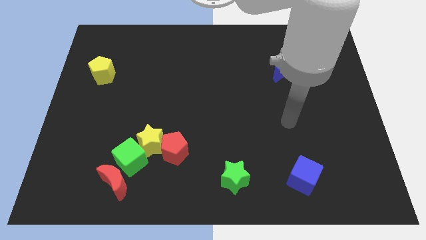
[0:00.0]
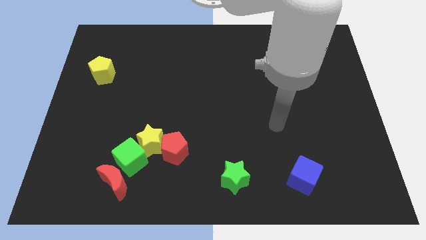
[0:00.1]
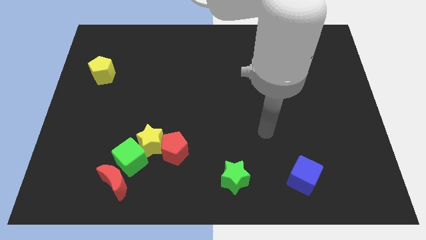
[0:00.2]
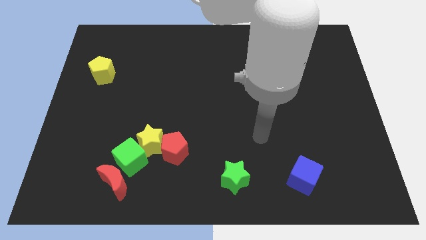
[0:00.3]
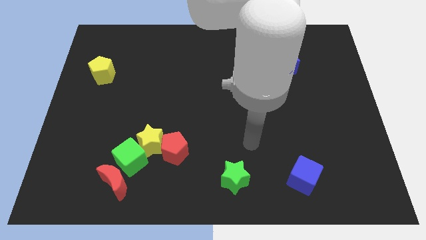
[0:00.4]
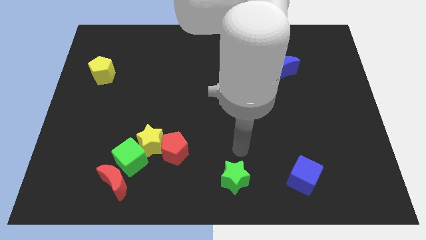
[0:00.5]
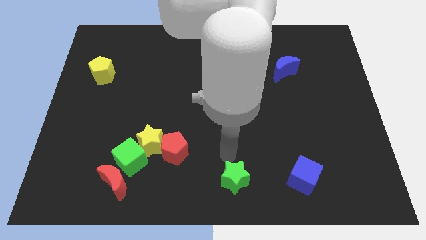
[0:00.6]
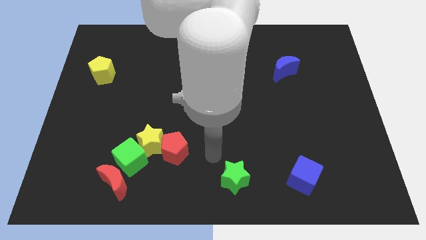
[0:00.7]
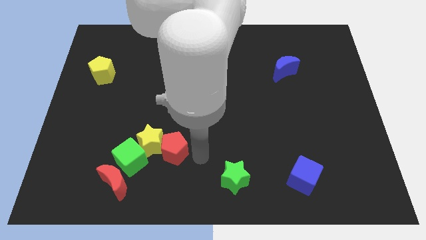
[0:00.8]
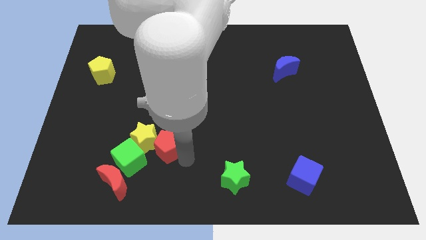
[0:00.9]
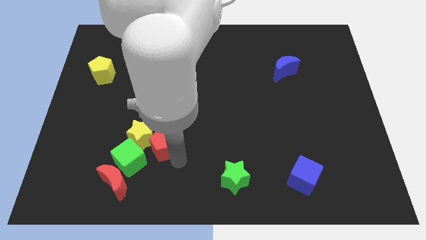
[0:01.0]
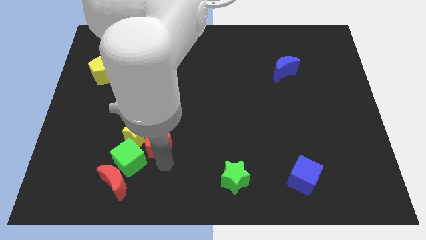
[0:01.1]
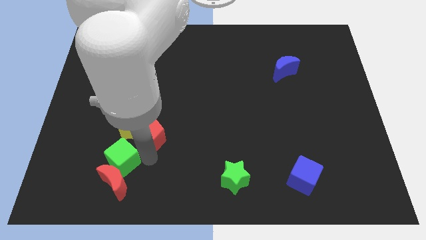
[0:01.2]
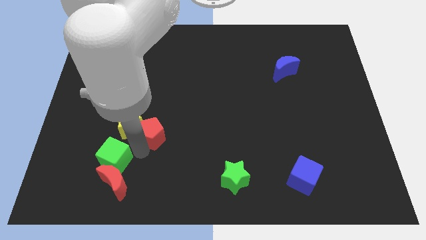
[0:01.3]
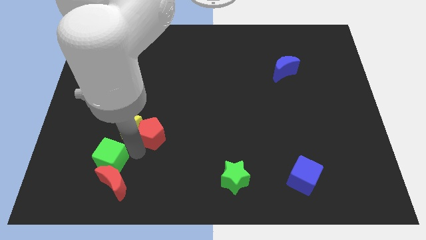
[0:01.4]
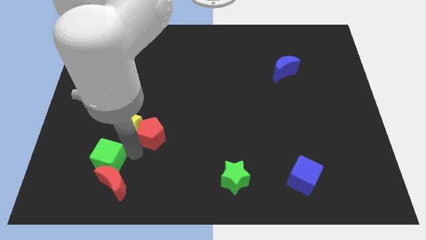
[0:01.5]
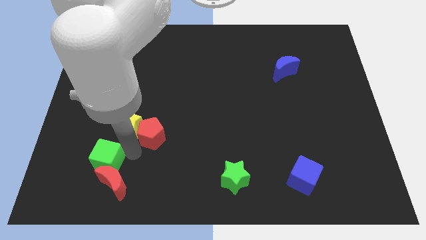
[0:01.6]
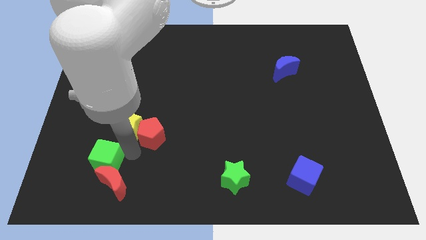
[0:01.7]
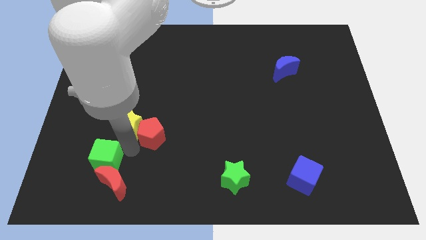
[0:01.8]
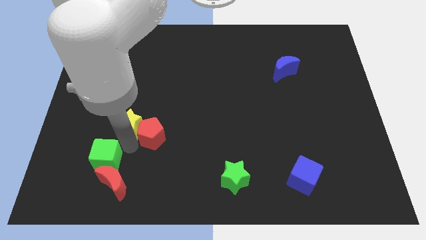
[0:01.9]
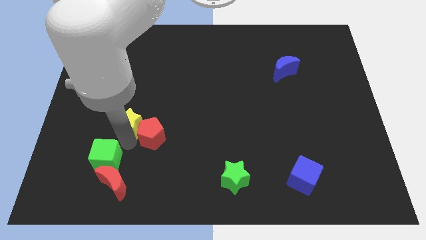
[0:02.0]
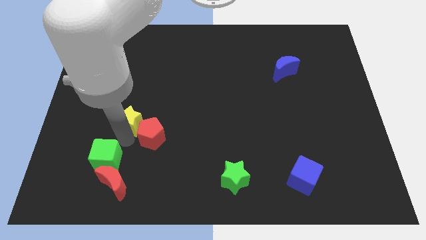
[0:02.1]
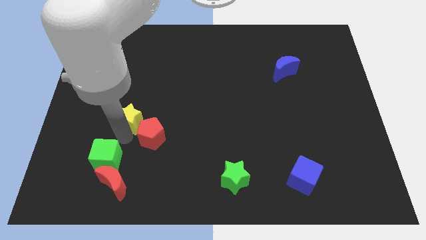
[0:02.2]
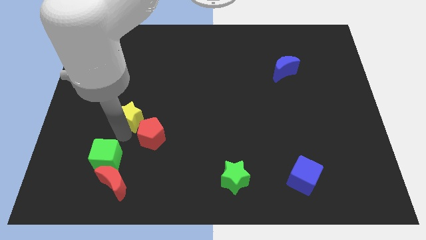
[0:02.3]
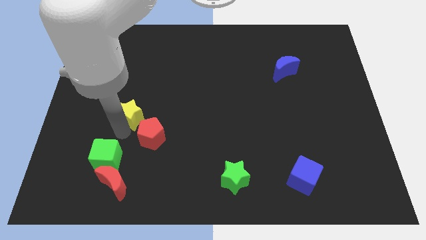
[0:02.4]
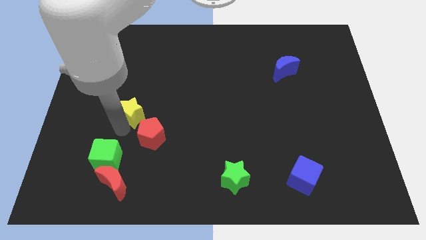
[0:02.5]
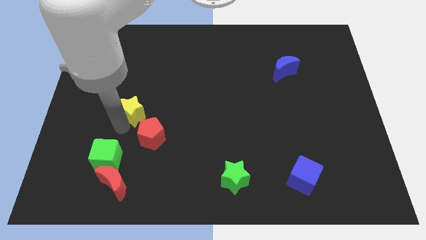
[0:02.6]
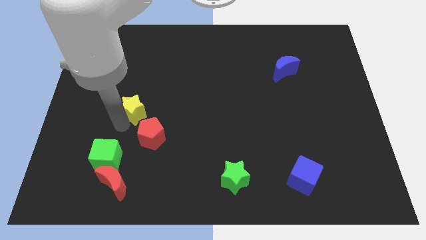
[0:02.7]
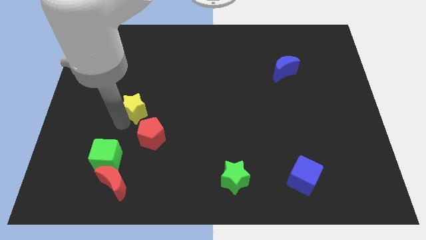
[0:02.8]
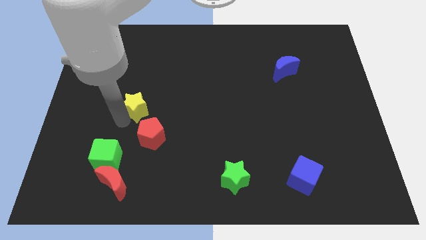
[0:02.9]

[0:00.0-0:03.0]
separate the yellow star from the green cube and red pentagon

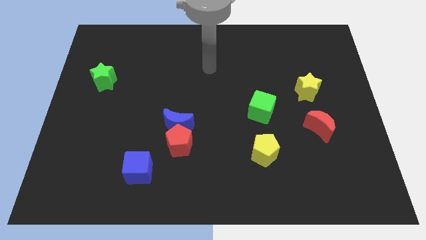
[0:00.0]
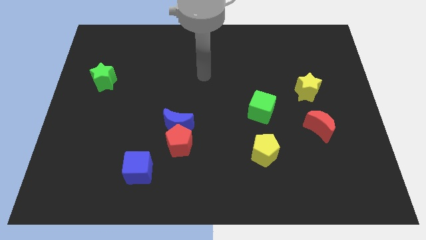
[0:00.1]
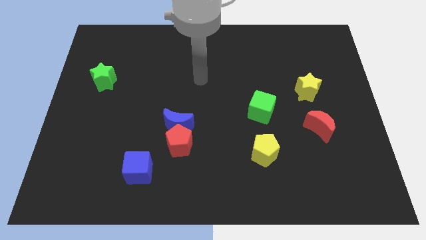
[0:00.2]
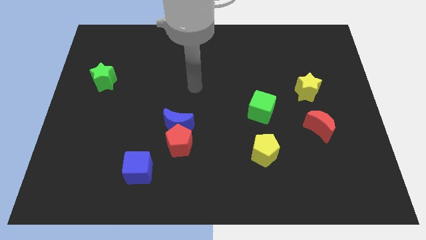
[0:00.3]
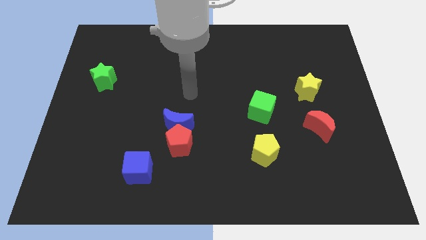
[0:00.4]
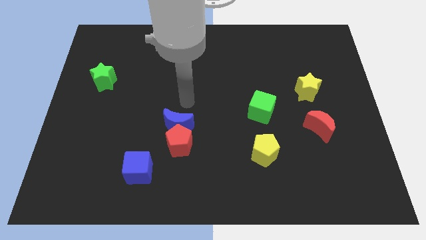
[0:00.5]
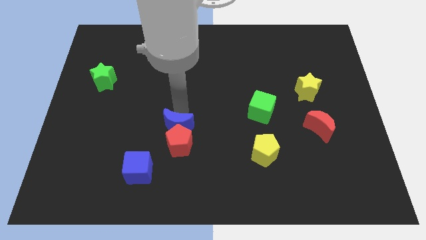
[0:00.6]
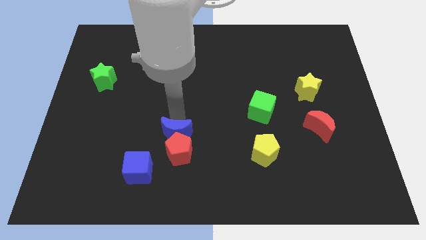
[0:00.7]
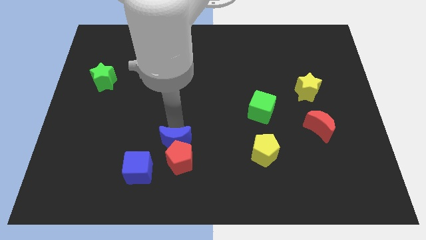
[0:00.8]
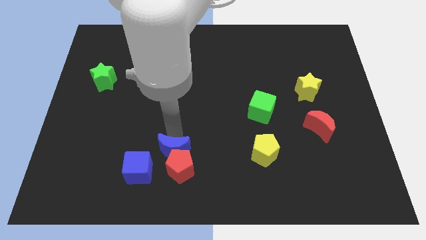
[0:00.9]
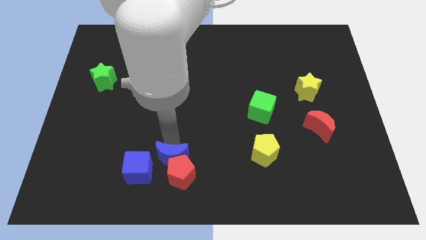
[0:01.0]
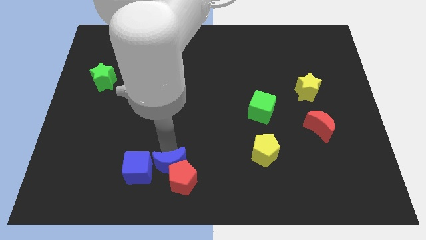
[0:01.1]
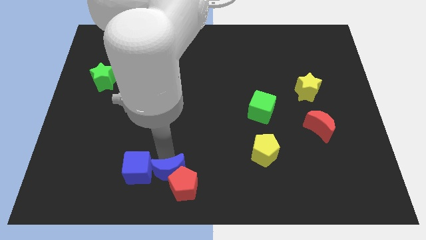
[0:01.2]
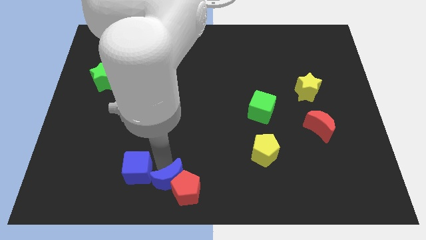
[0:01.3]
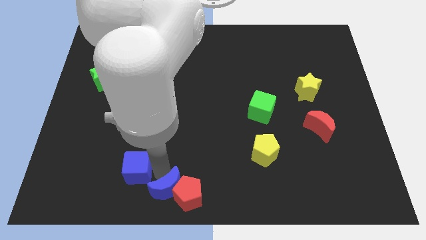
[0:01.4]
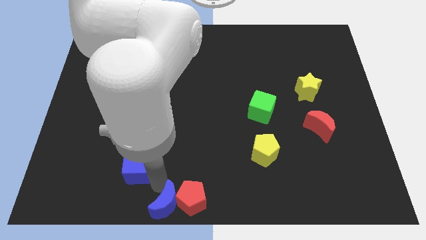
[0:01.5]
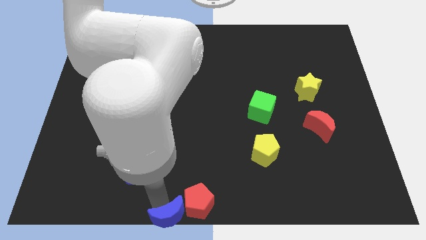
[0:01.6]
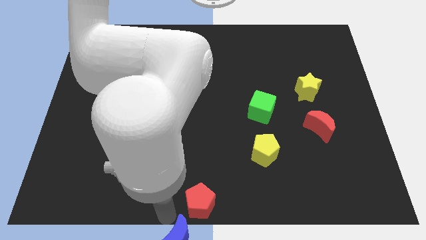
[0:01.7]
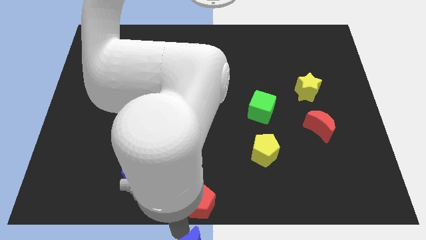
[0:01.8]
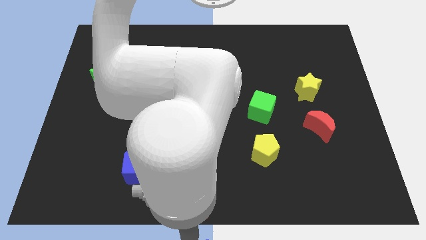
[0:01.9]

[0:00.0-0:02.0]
pull the red pentagon apart from the blue moon

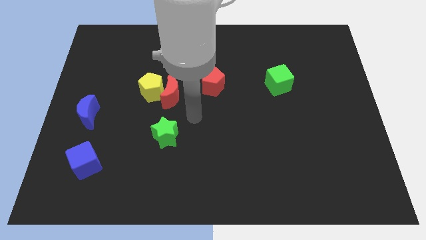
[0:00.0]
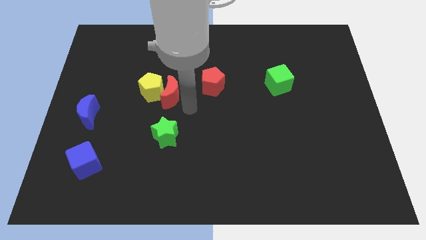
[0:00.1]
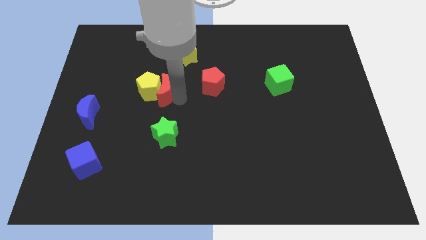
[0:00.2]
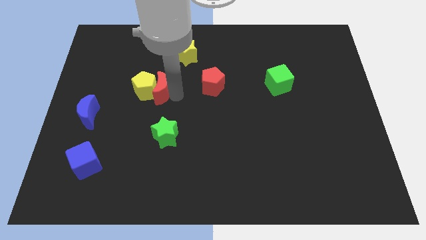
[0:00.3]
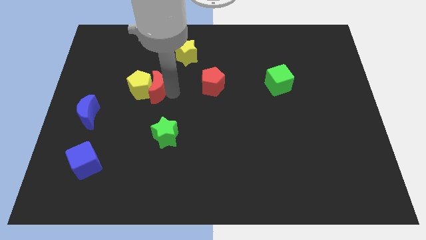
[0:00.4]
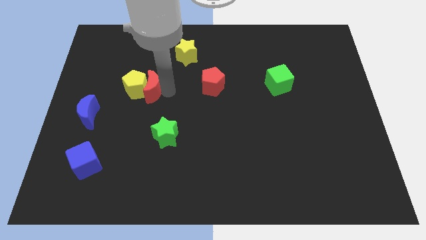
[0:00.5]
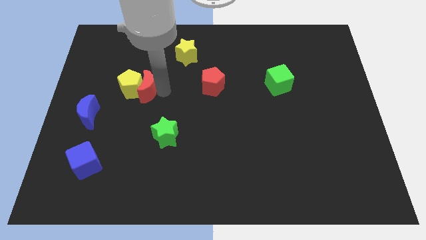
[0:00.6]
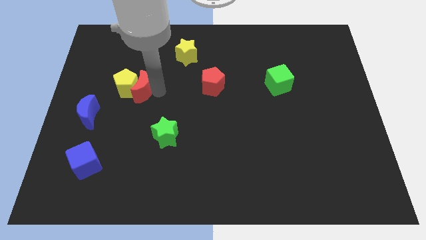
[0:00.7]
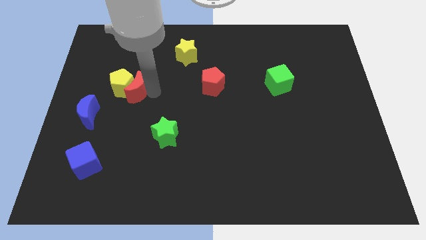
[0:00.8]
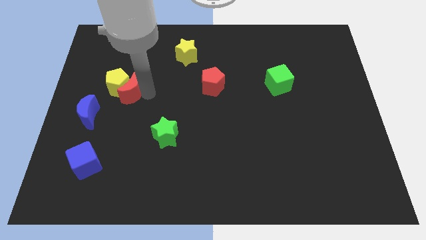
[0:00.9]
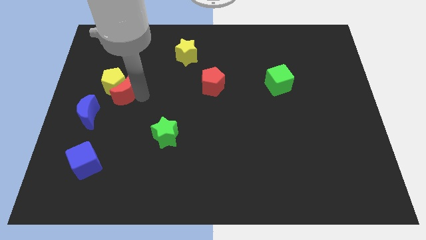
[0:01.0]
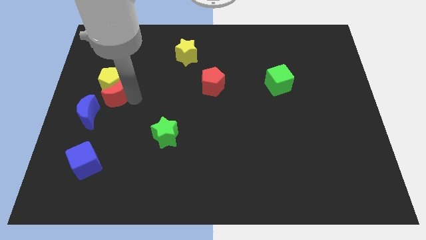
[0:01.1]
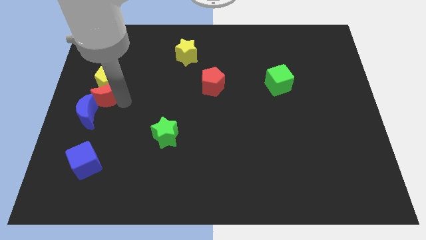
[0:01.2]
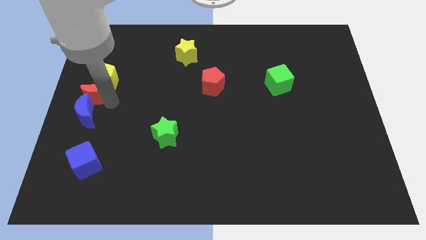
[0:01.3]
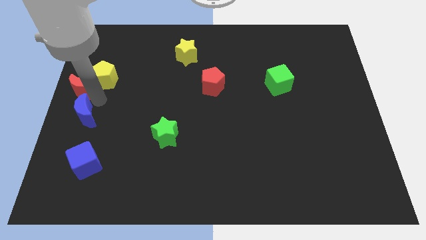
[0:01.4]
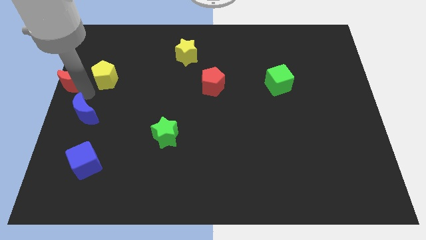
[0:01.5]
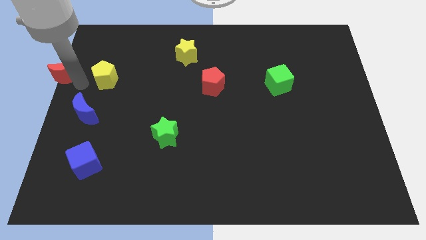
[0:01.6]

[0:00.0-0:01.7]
pull the yellow pentagon apart from the red moon

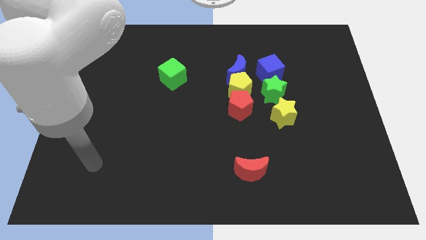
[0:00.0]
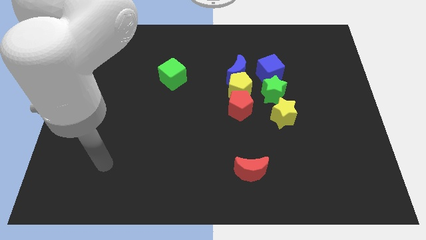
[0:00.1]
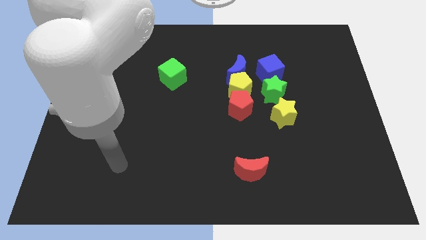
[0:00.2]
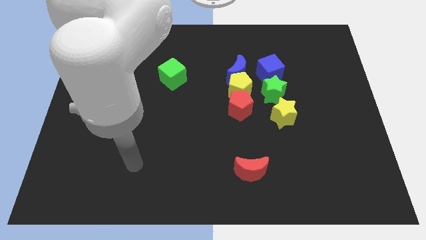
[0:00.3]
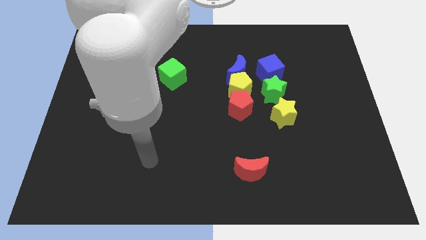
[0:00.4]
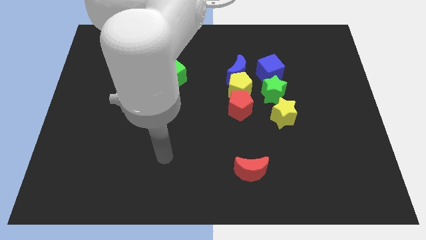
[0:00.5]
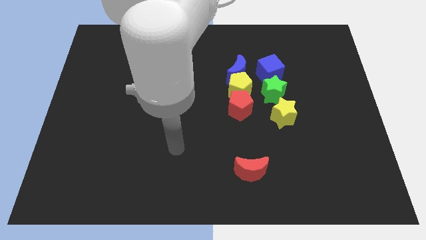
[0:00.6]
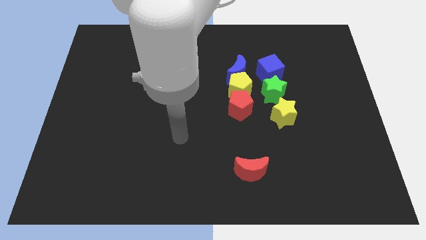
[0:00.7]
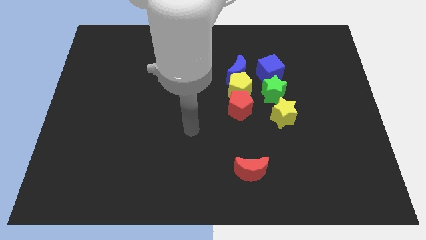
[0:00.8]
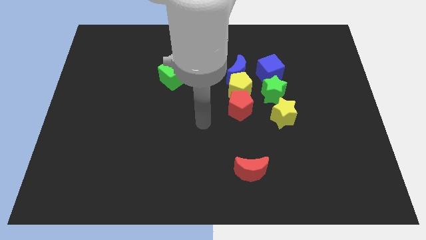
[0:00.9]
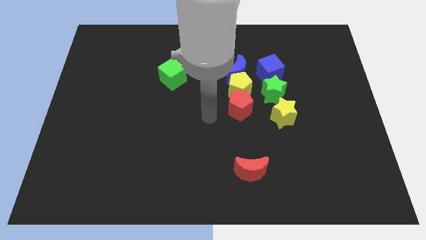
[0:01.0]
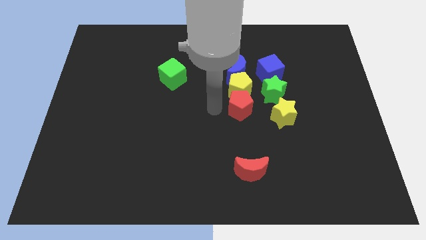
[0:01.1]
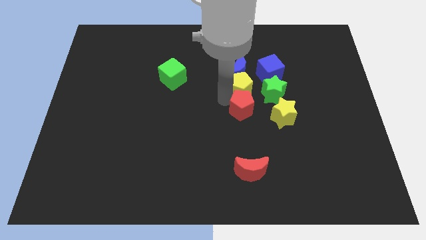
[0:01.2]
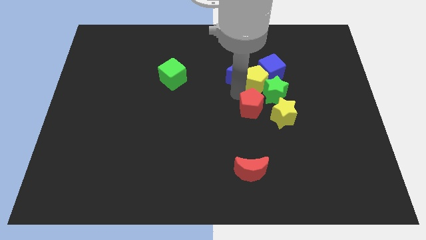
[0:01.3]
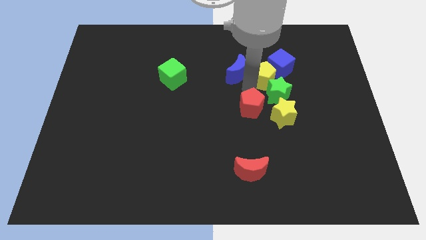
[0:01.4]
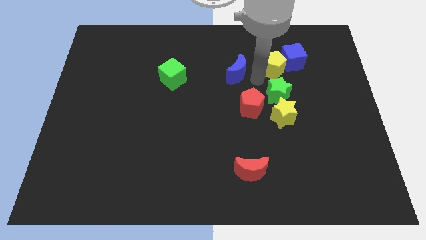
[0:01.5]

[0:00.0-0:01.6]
move the blue moon away from the yellow pentagon and blue cube

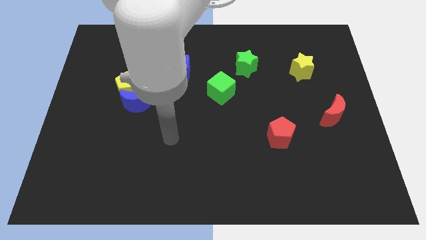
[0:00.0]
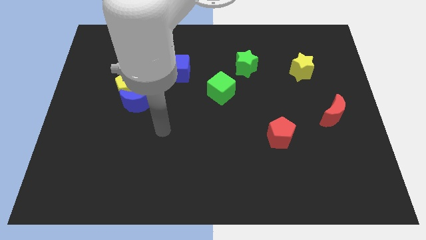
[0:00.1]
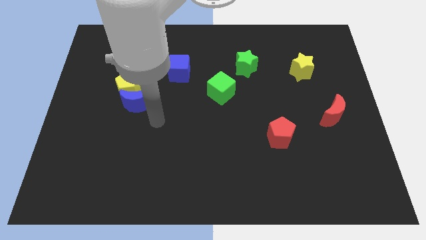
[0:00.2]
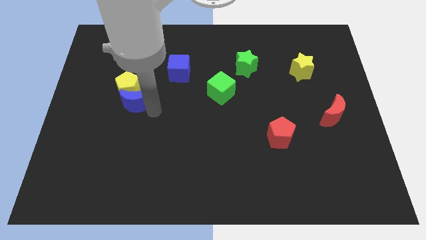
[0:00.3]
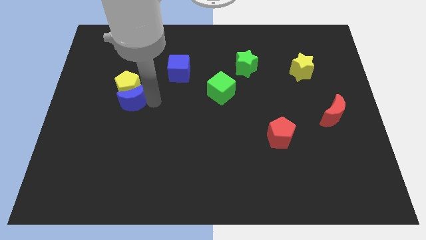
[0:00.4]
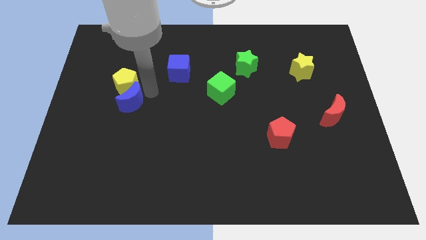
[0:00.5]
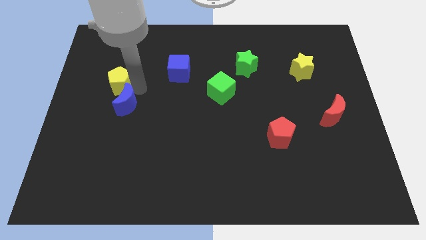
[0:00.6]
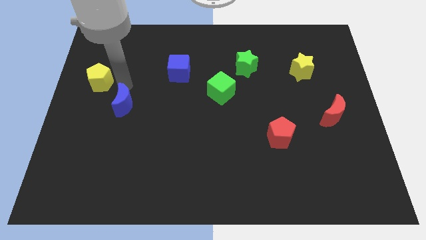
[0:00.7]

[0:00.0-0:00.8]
move the blue moon away from the yellow pentagon
